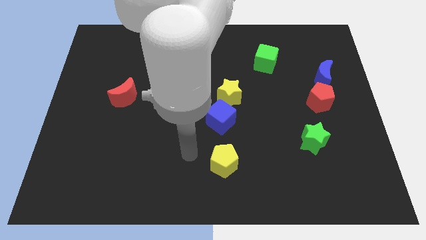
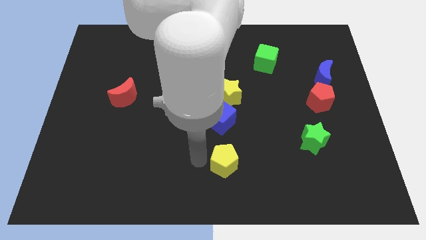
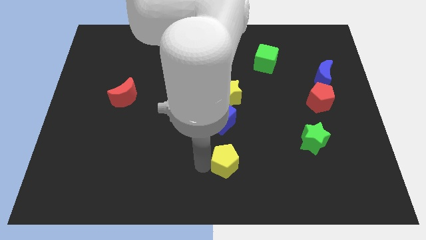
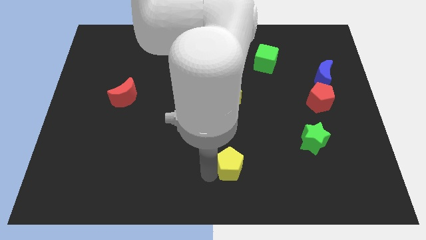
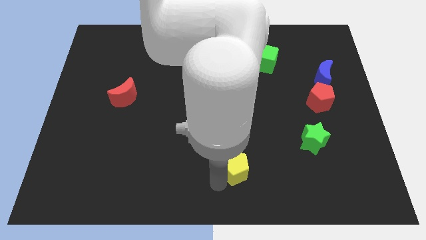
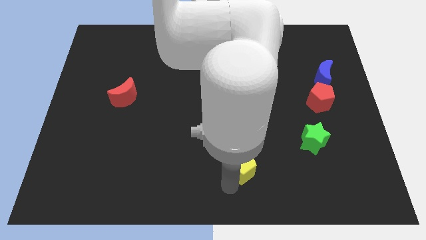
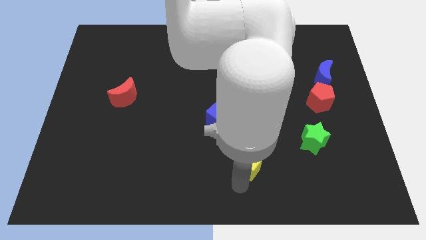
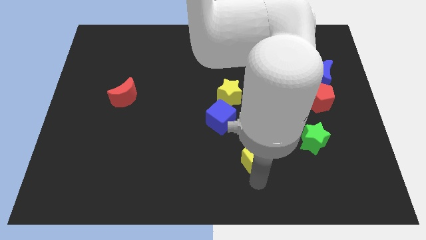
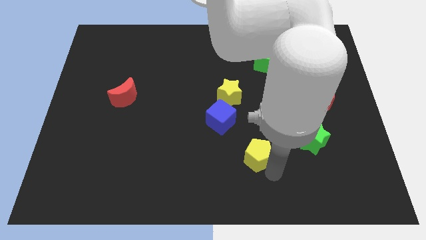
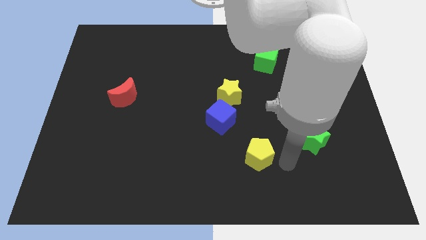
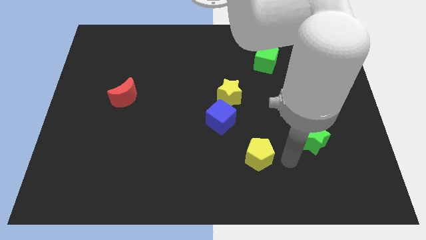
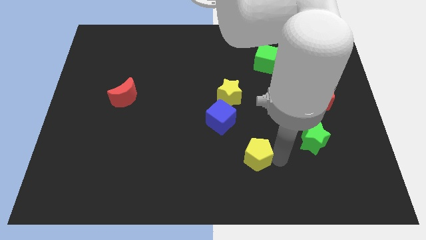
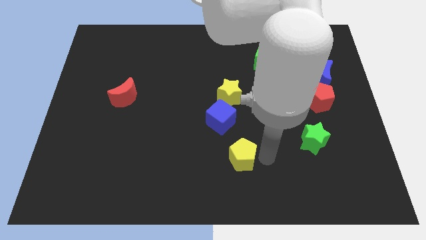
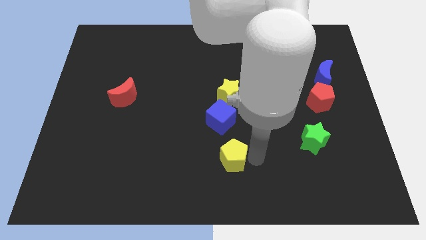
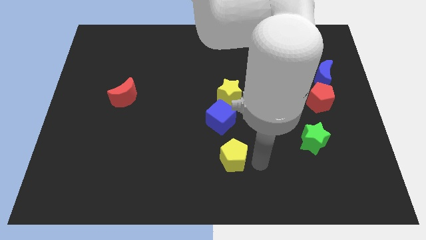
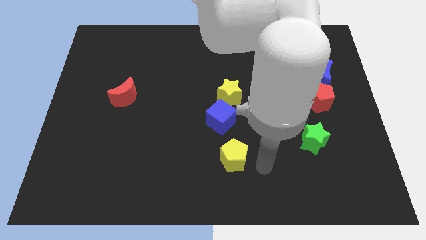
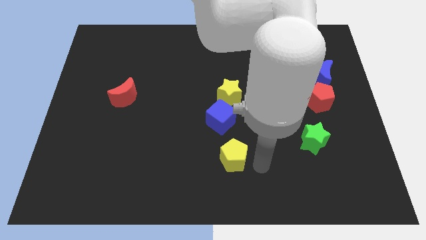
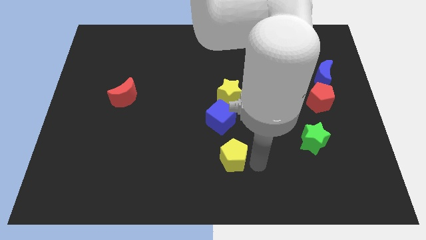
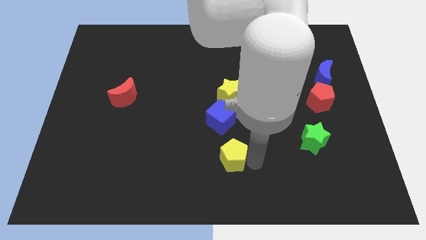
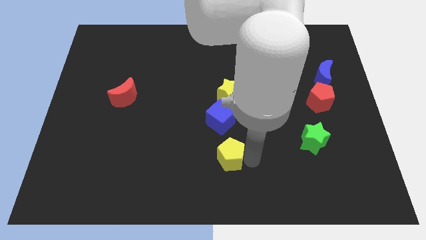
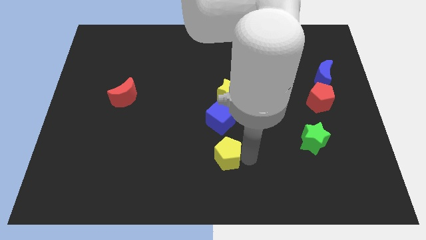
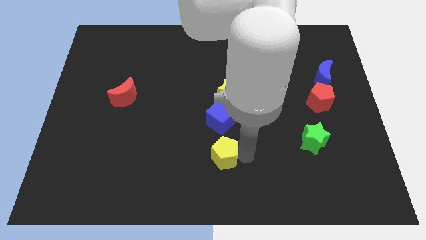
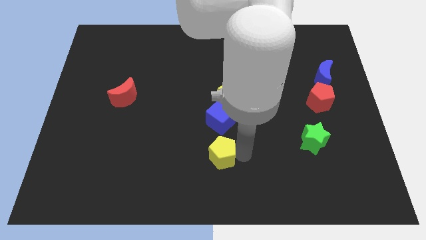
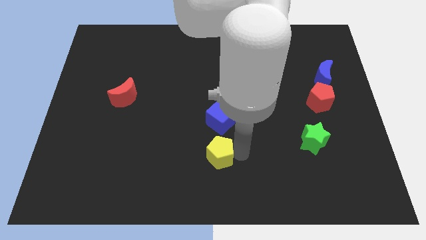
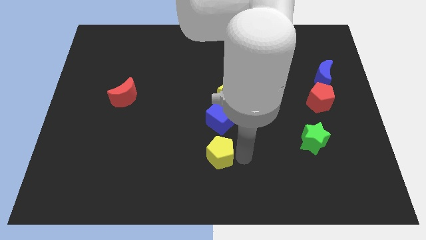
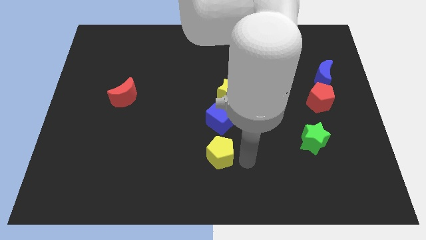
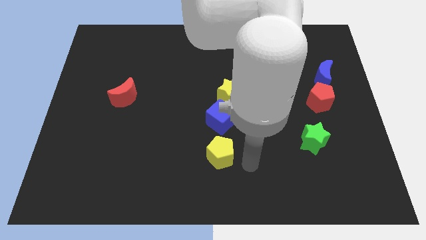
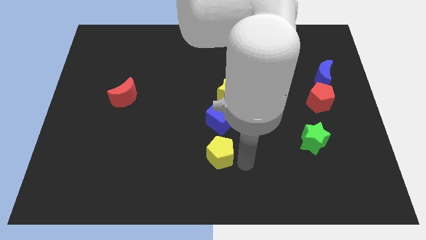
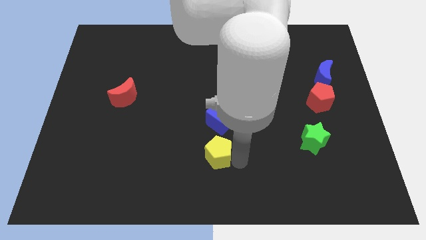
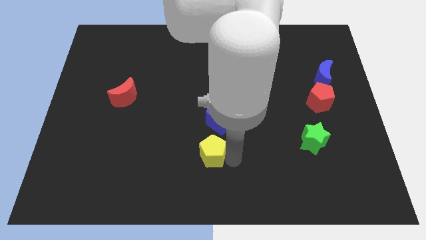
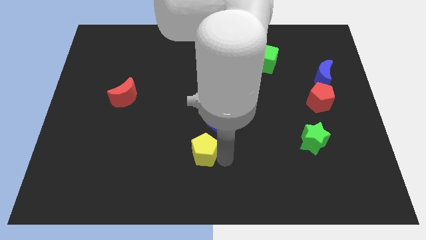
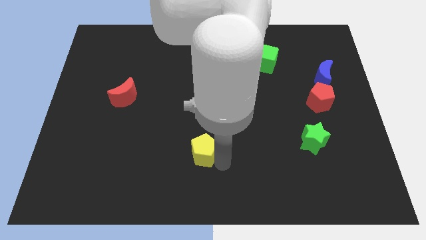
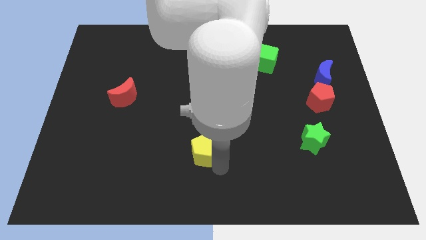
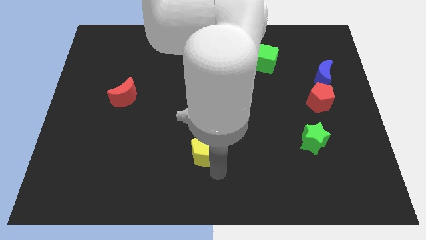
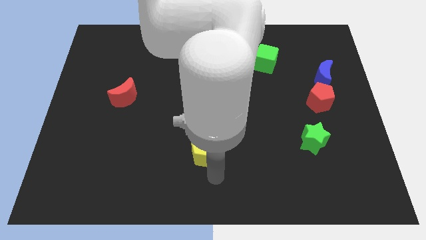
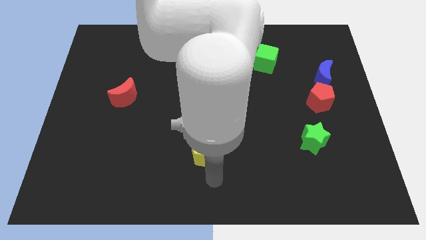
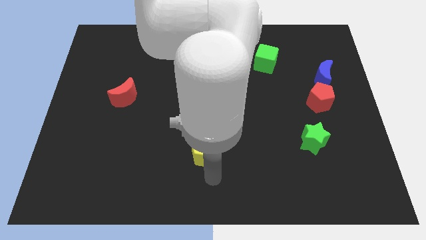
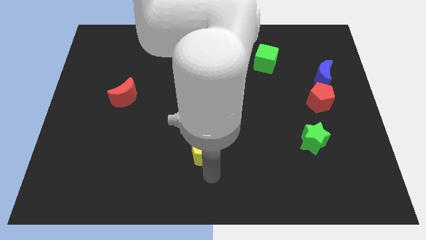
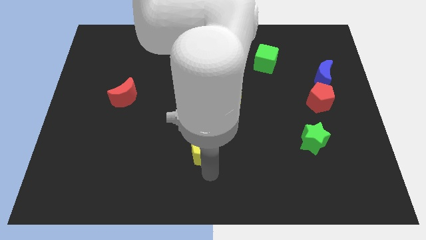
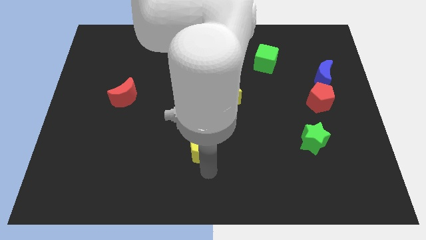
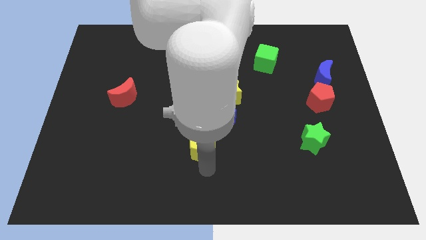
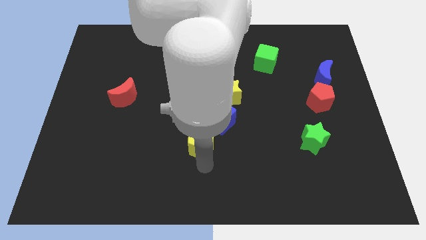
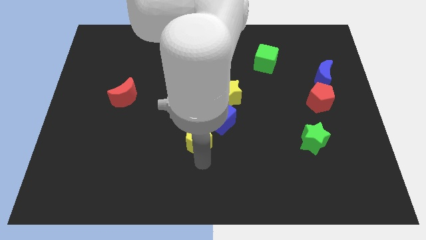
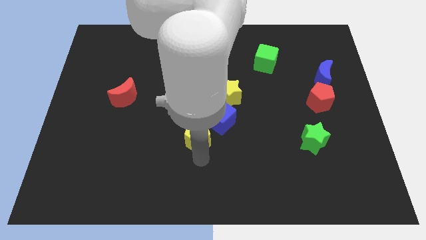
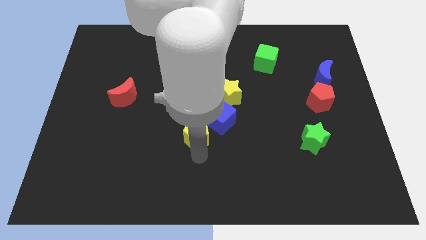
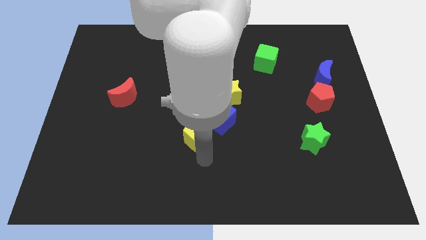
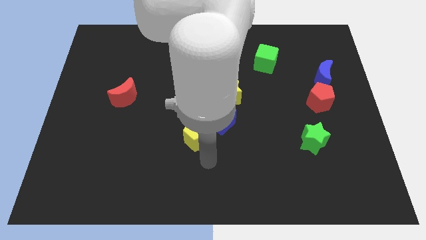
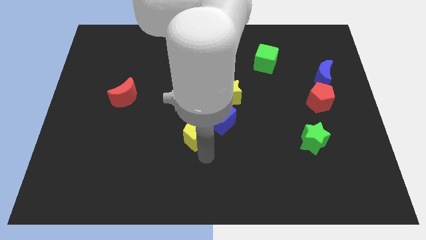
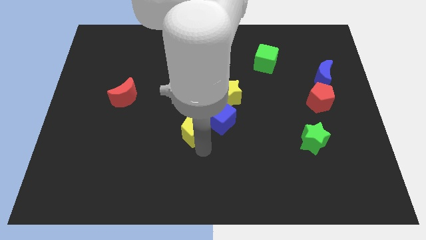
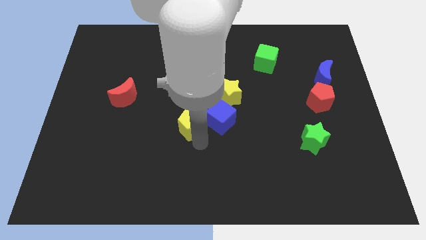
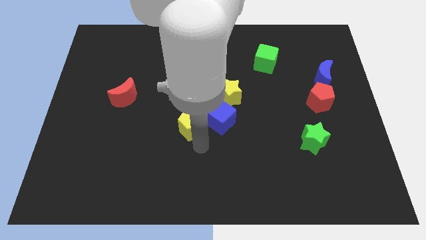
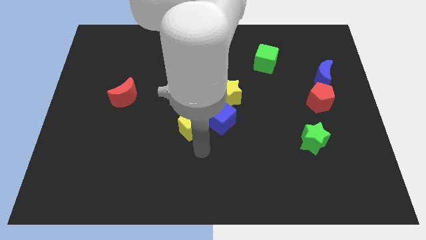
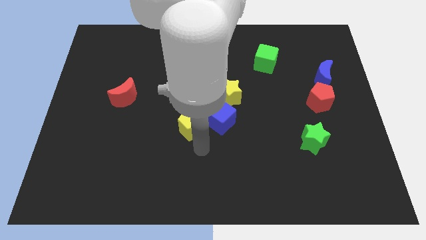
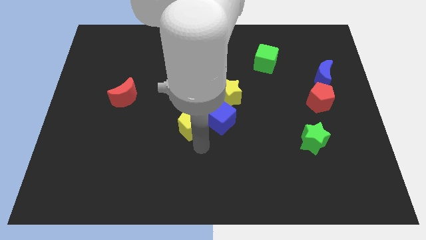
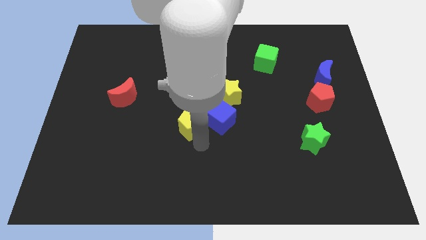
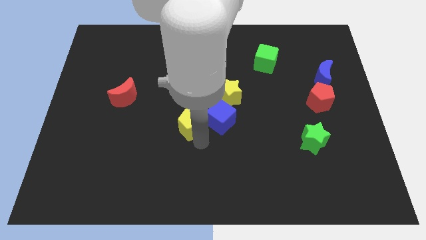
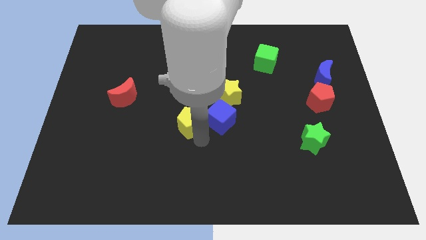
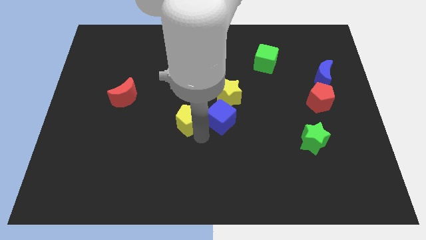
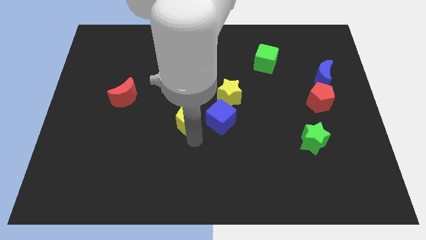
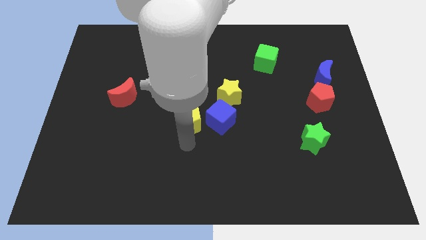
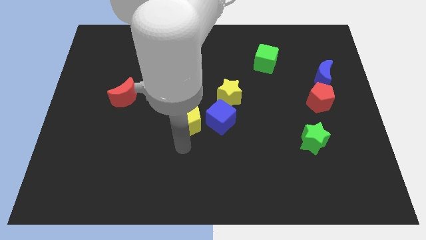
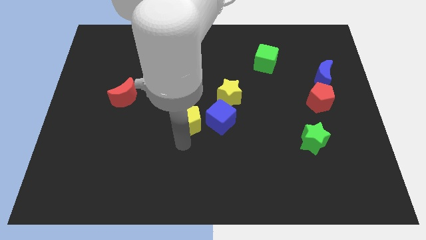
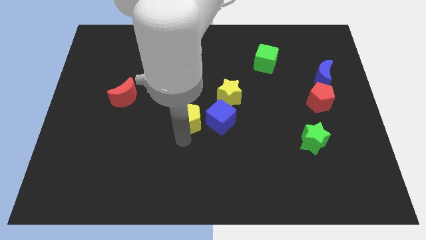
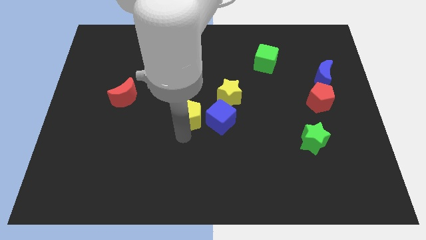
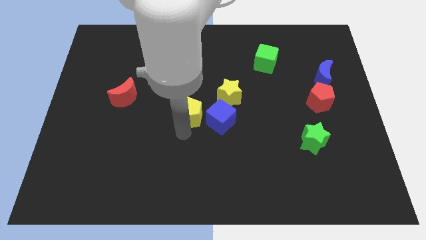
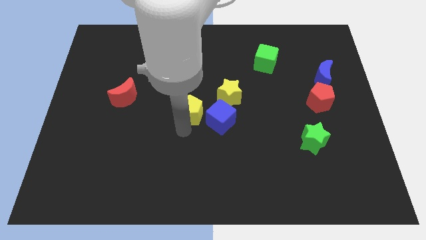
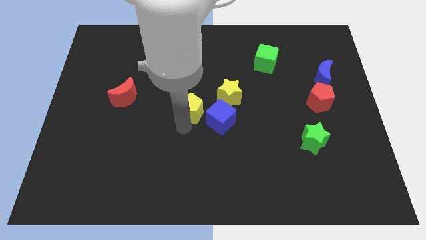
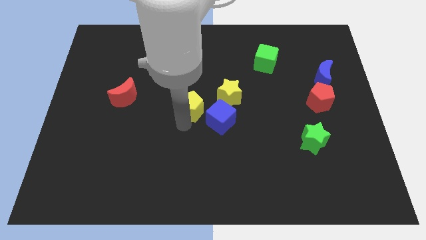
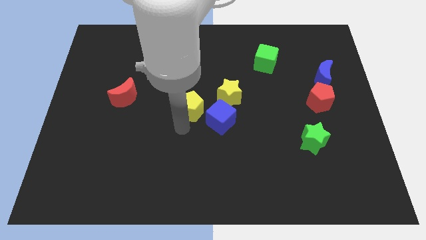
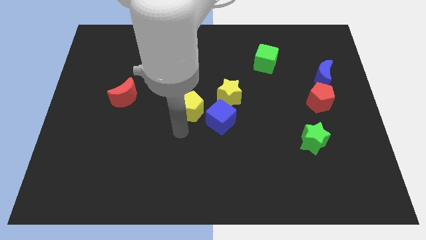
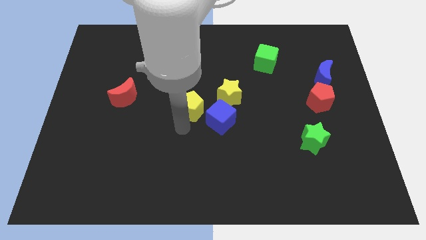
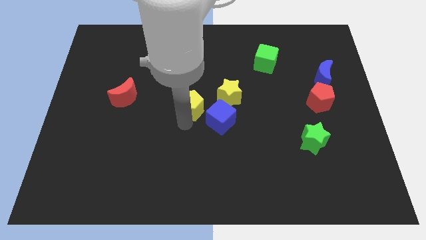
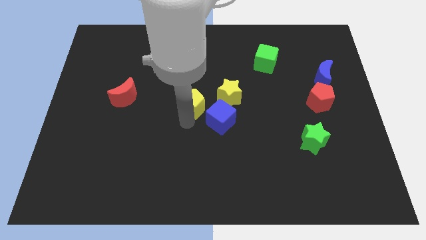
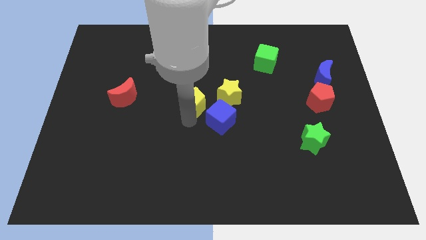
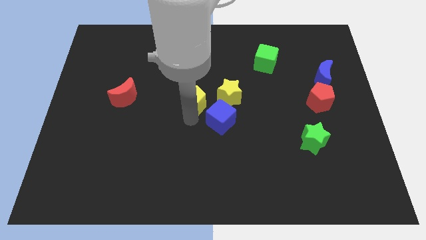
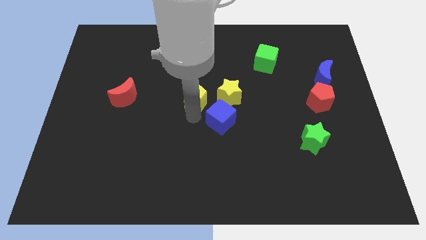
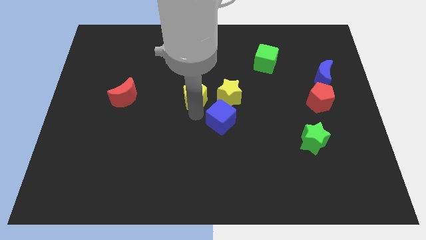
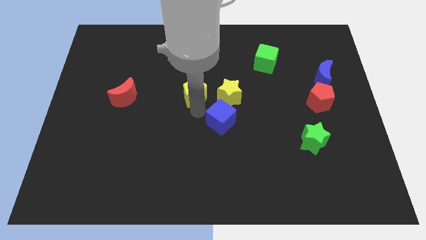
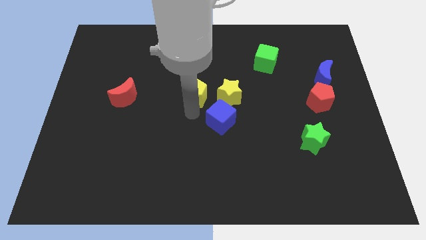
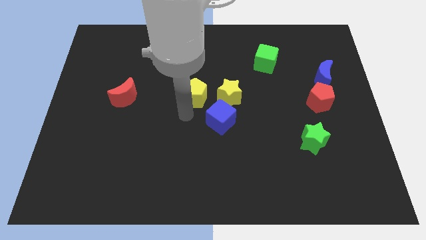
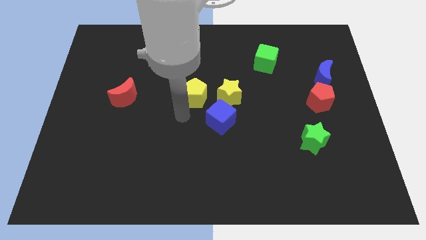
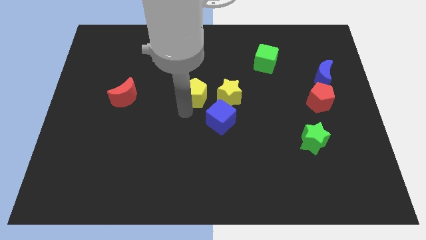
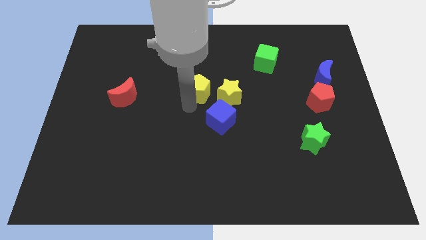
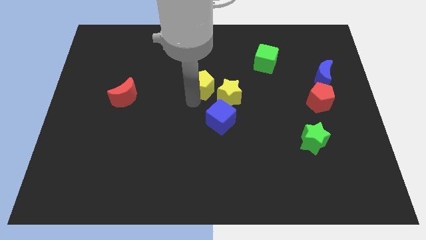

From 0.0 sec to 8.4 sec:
move the yellow pentagon up
